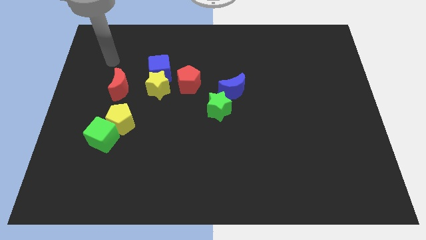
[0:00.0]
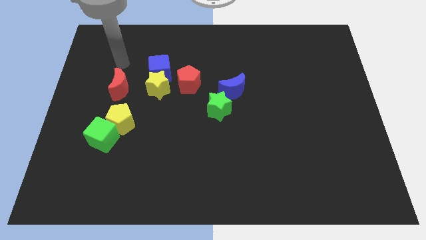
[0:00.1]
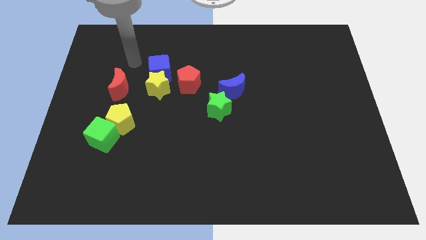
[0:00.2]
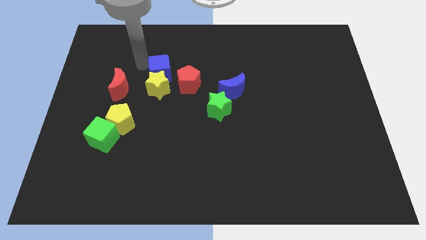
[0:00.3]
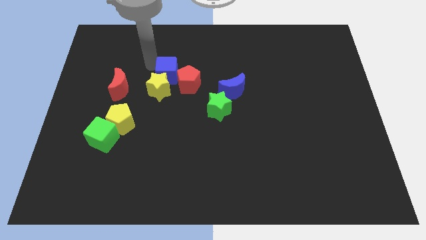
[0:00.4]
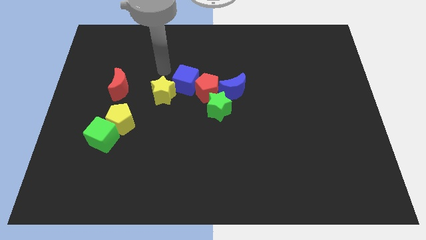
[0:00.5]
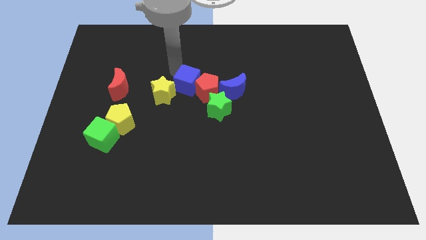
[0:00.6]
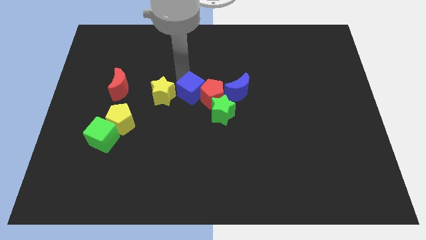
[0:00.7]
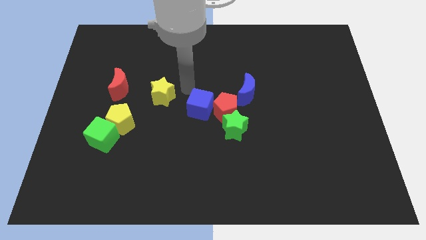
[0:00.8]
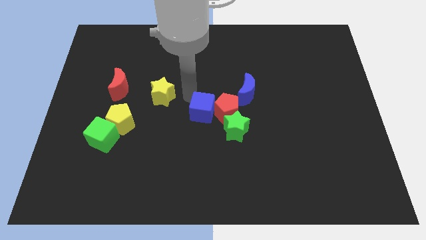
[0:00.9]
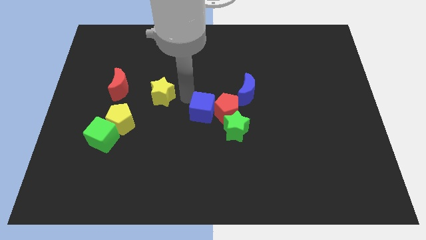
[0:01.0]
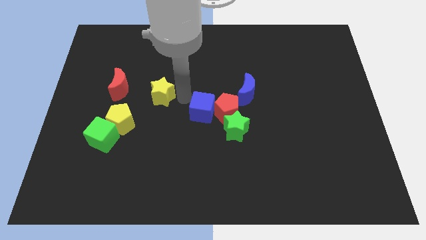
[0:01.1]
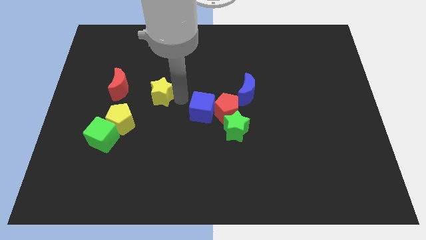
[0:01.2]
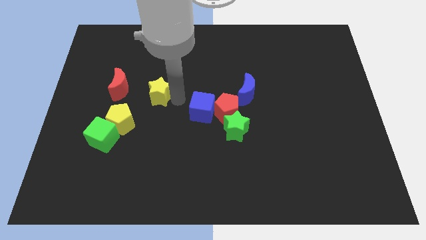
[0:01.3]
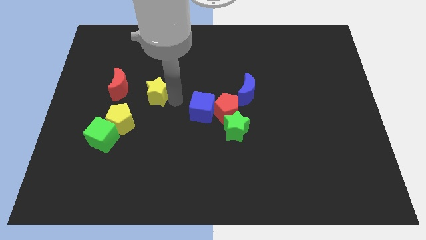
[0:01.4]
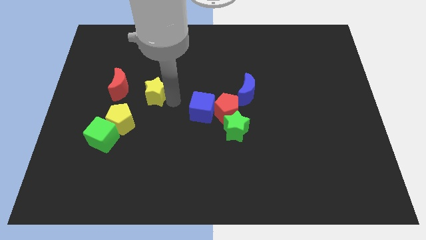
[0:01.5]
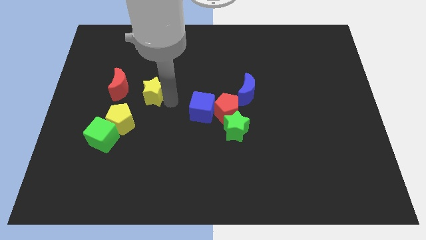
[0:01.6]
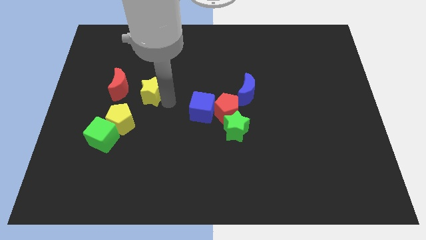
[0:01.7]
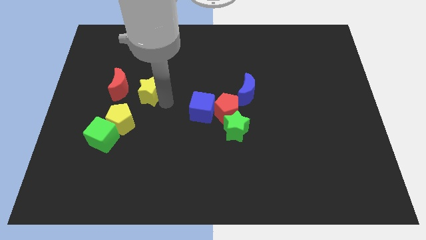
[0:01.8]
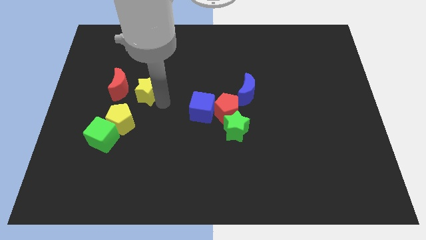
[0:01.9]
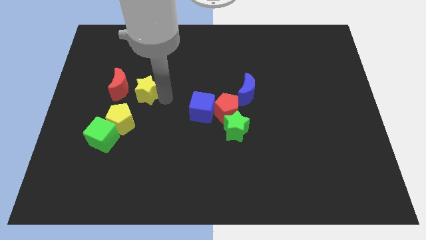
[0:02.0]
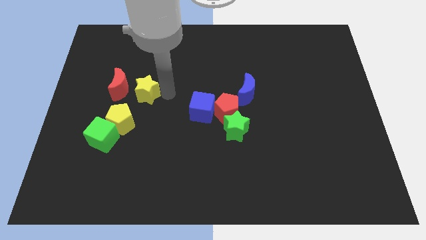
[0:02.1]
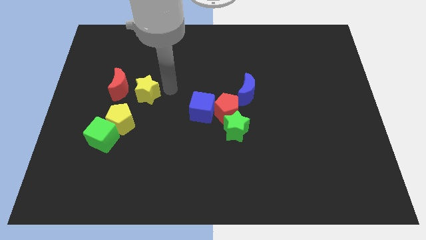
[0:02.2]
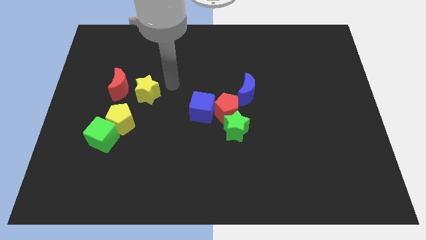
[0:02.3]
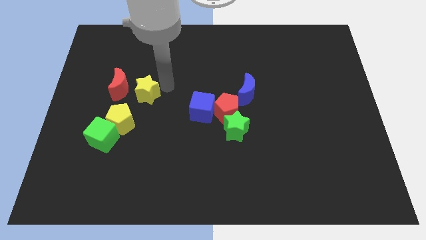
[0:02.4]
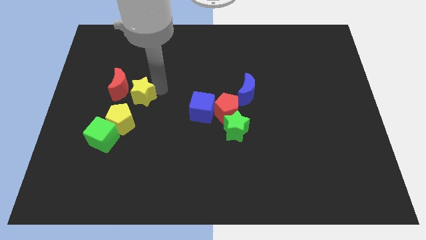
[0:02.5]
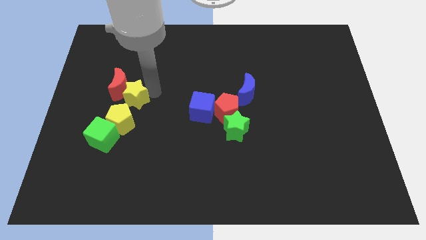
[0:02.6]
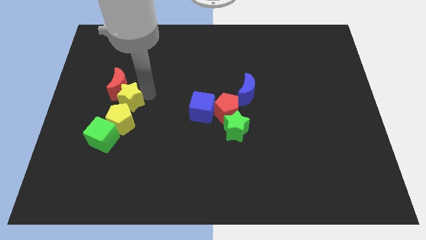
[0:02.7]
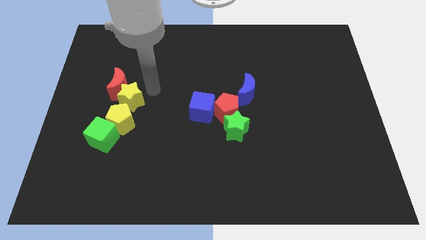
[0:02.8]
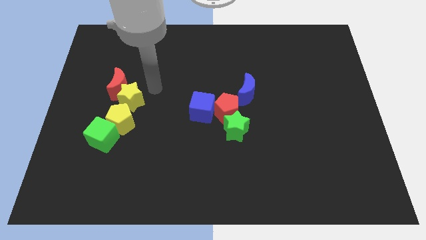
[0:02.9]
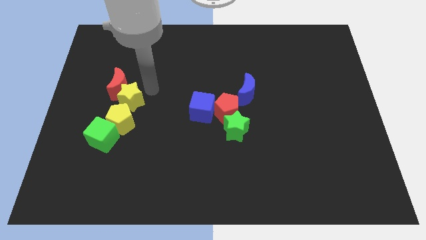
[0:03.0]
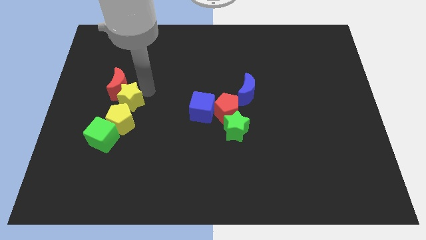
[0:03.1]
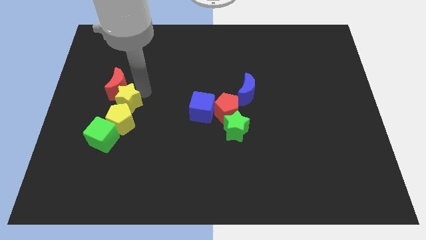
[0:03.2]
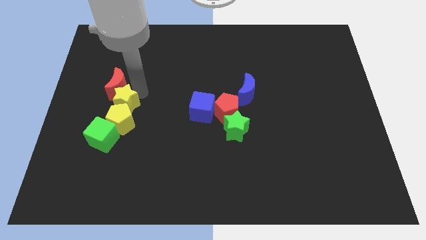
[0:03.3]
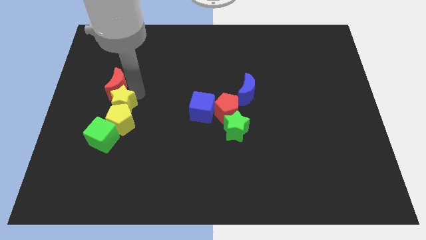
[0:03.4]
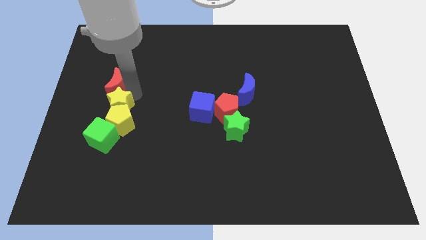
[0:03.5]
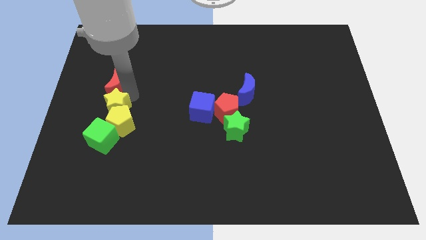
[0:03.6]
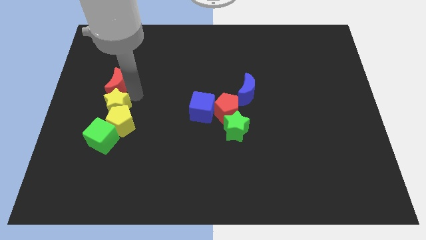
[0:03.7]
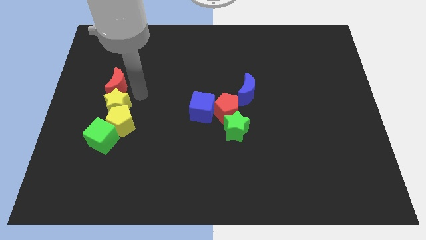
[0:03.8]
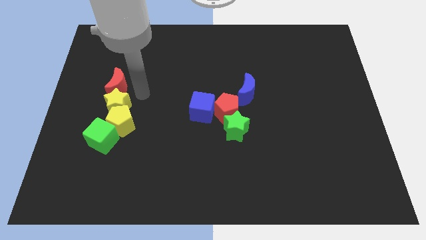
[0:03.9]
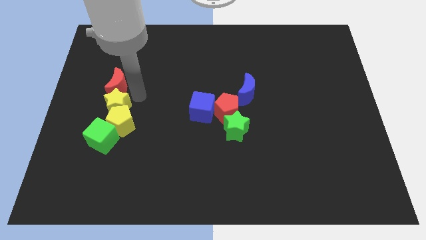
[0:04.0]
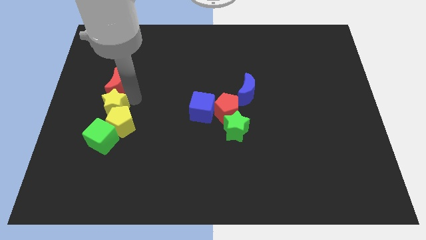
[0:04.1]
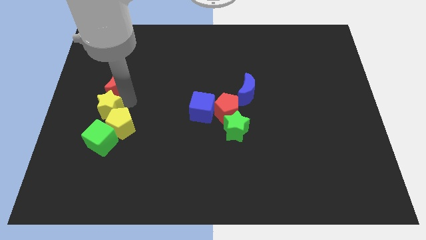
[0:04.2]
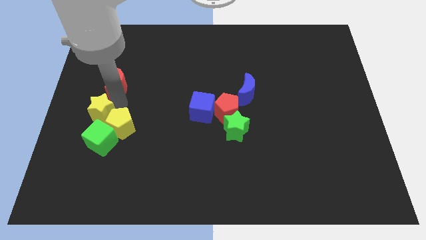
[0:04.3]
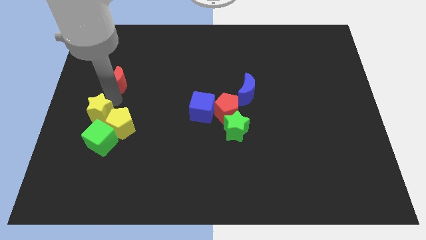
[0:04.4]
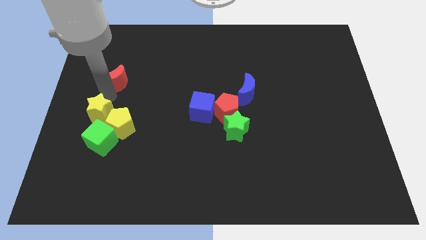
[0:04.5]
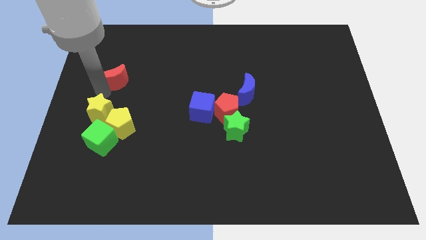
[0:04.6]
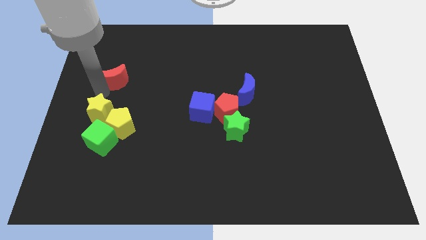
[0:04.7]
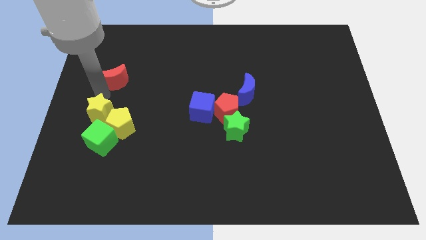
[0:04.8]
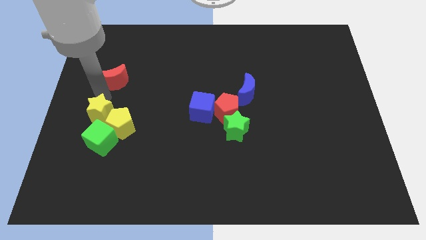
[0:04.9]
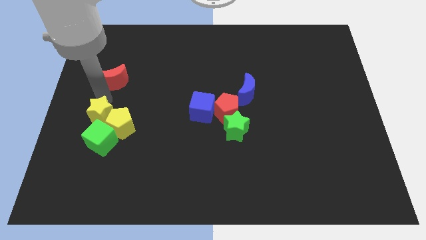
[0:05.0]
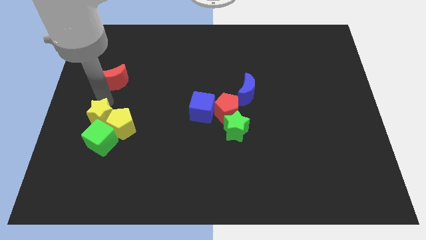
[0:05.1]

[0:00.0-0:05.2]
slide the yellow star to the green cube

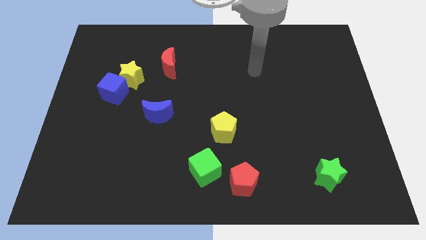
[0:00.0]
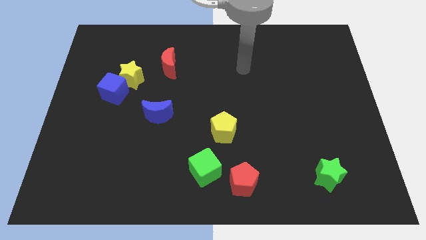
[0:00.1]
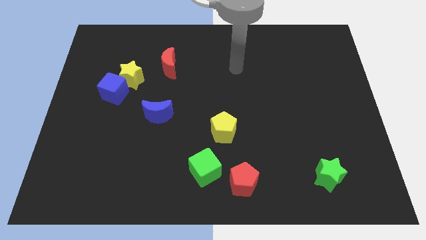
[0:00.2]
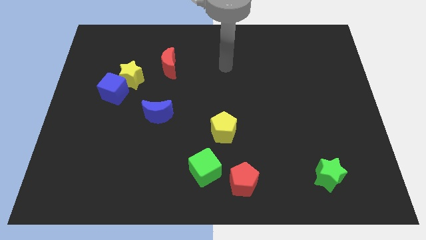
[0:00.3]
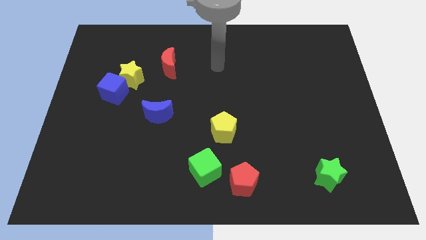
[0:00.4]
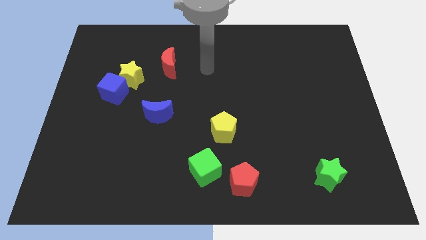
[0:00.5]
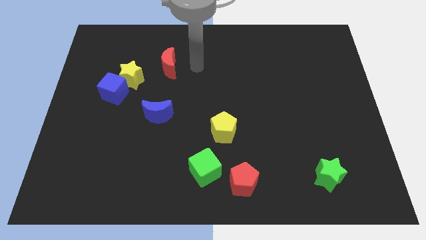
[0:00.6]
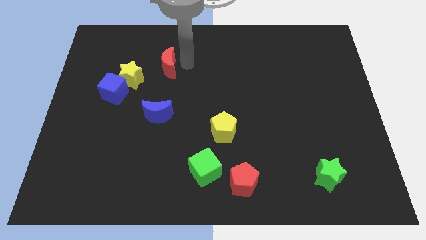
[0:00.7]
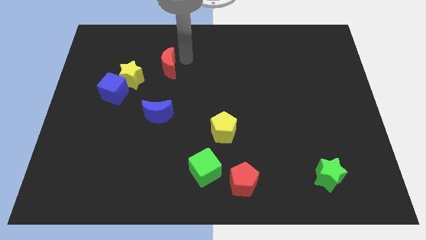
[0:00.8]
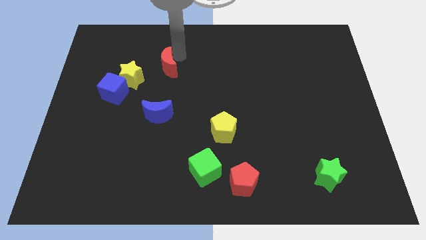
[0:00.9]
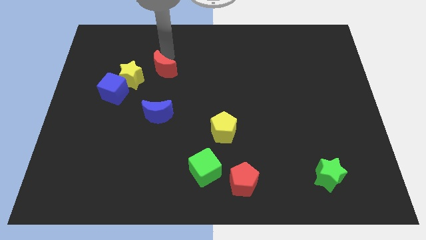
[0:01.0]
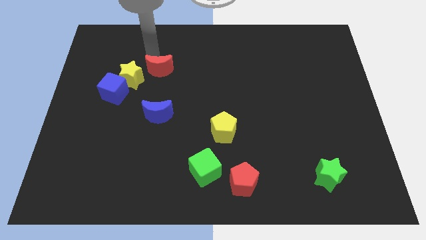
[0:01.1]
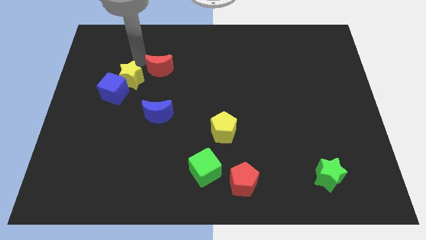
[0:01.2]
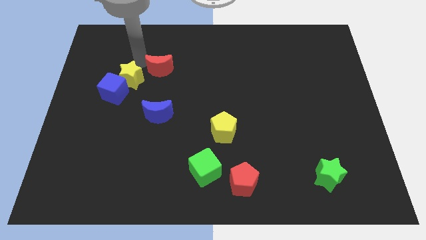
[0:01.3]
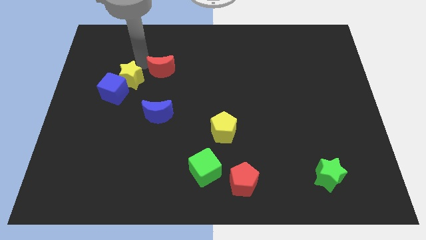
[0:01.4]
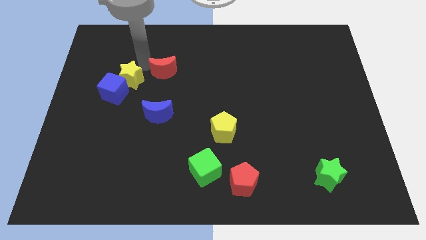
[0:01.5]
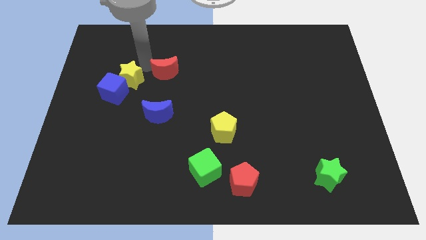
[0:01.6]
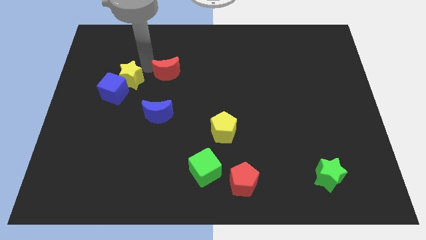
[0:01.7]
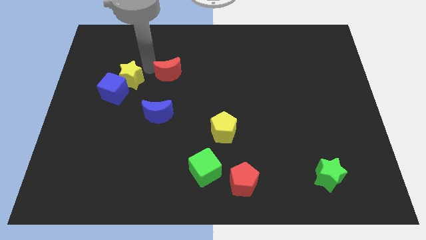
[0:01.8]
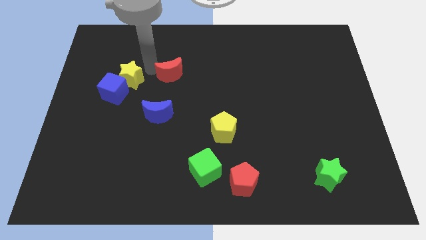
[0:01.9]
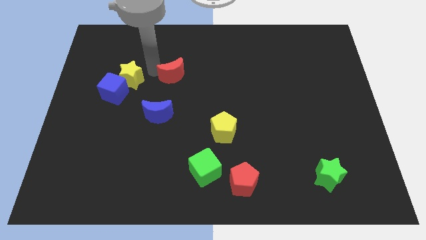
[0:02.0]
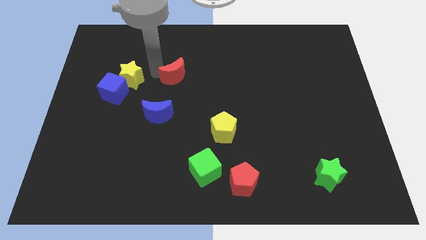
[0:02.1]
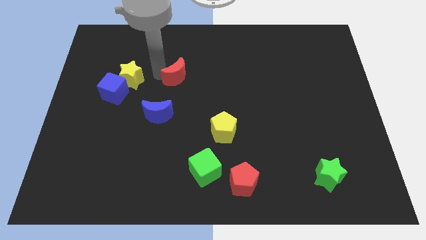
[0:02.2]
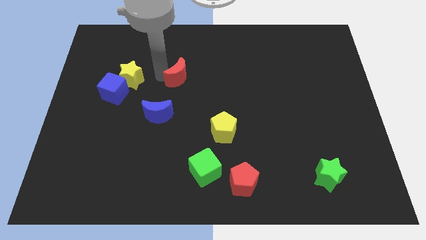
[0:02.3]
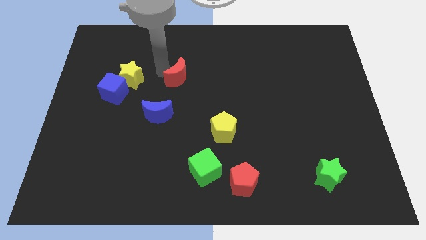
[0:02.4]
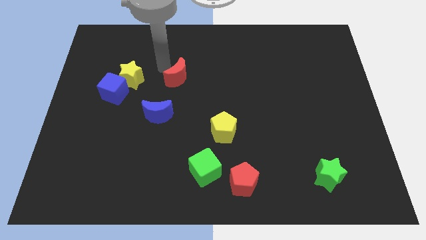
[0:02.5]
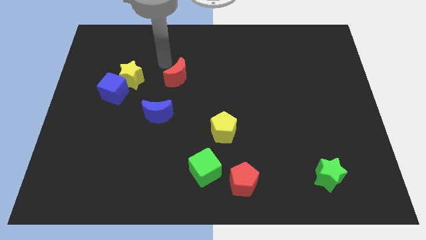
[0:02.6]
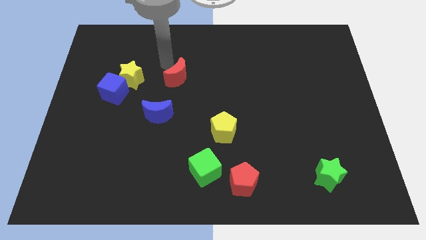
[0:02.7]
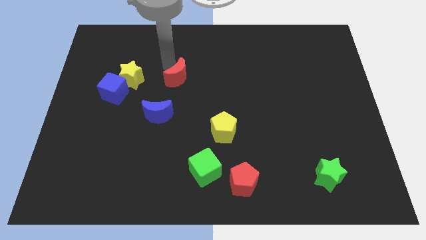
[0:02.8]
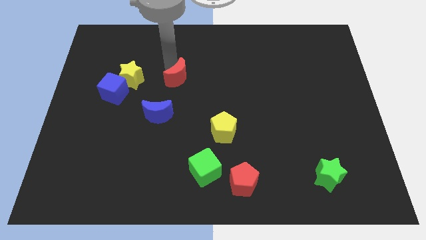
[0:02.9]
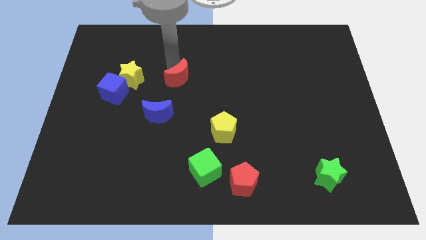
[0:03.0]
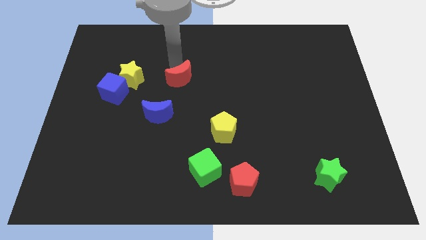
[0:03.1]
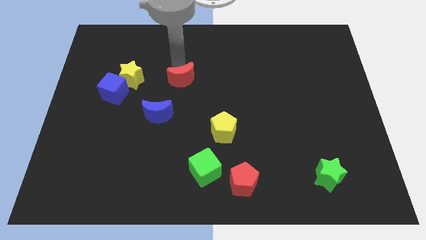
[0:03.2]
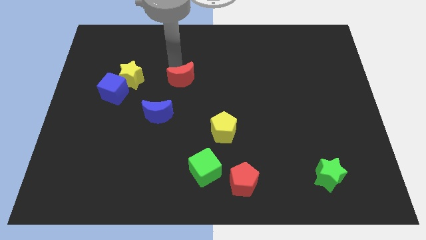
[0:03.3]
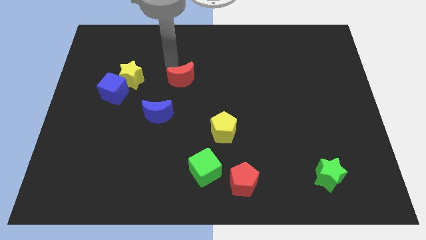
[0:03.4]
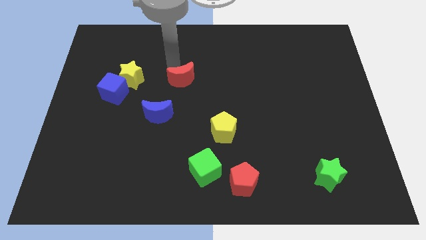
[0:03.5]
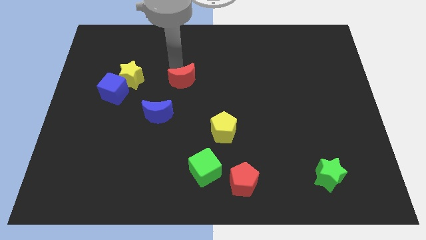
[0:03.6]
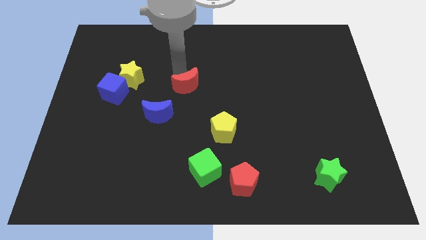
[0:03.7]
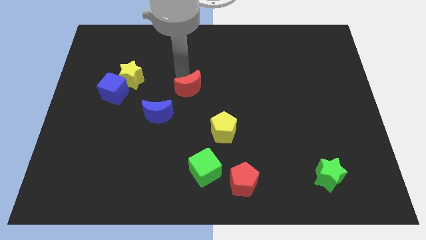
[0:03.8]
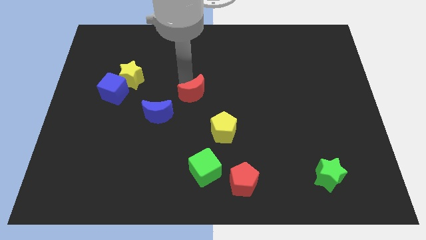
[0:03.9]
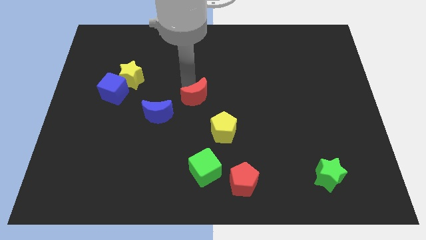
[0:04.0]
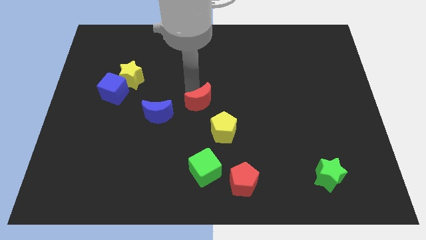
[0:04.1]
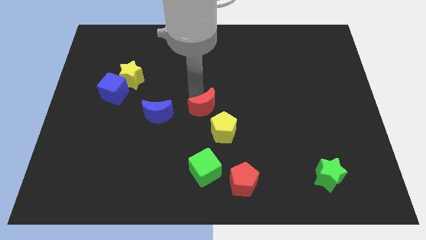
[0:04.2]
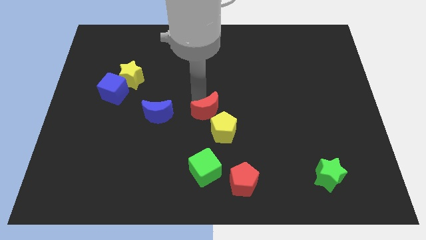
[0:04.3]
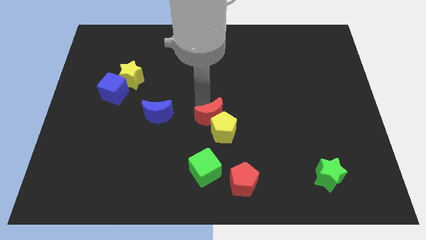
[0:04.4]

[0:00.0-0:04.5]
push the red moon close to the yellow pentagon
